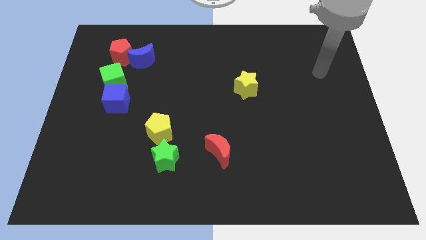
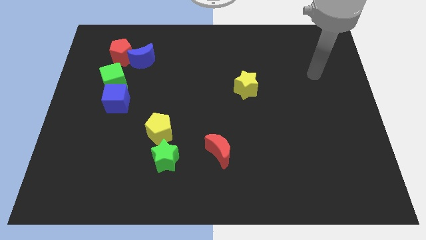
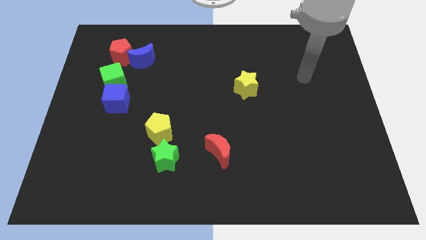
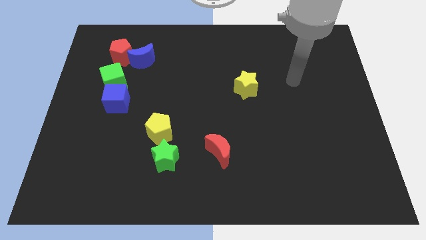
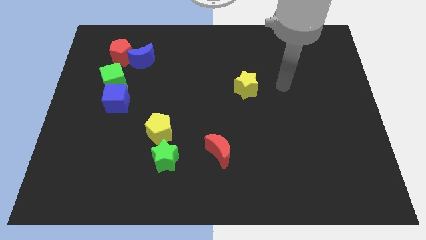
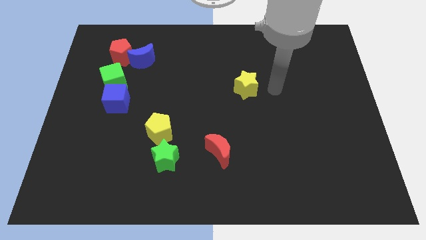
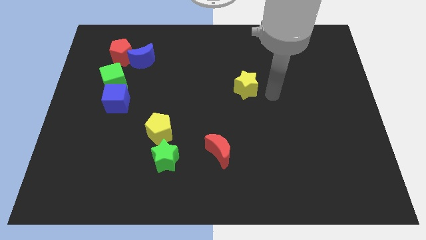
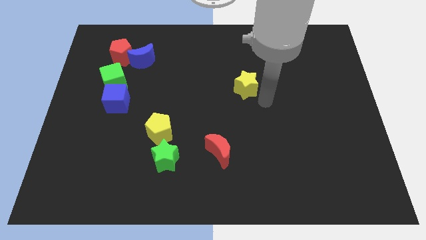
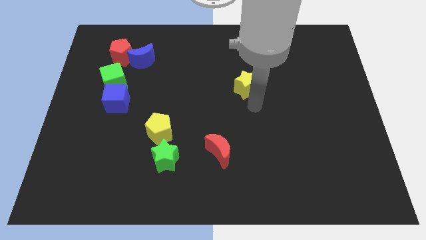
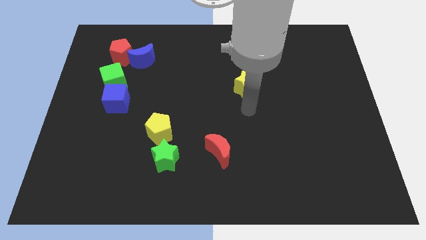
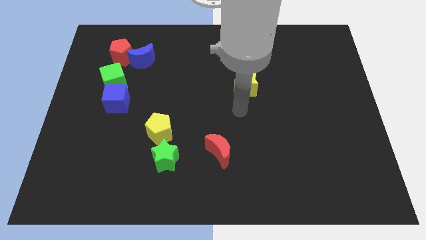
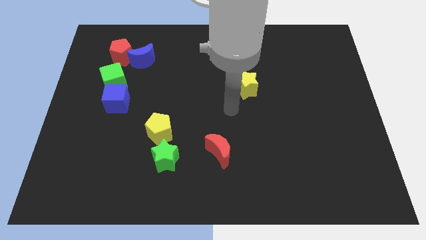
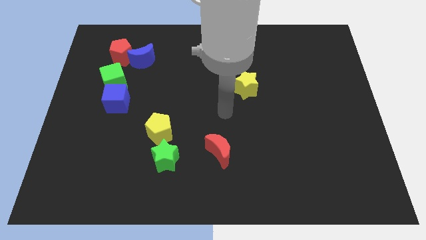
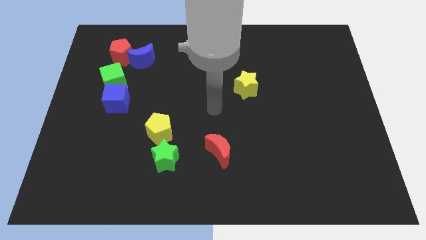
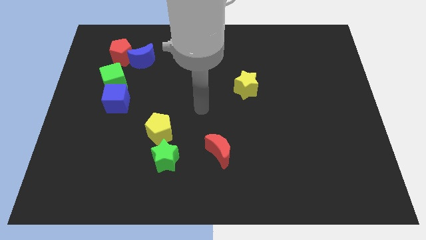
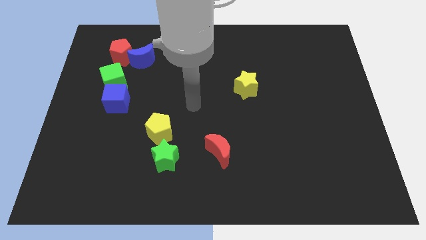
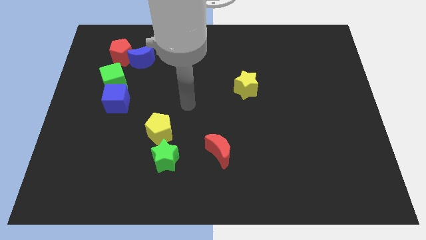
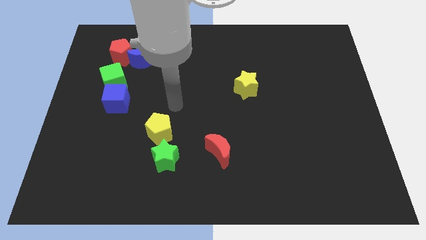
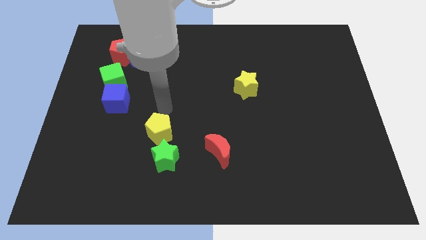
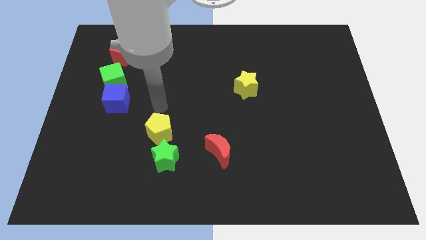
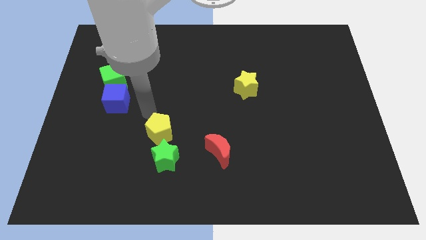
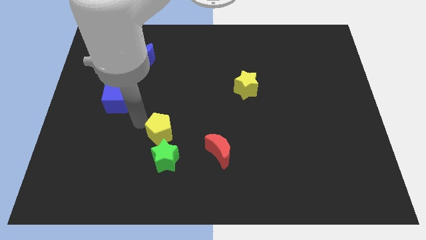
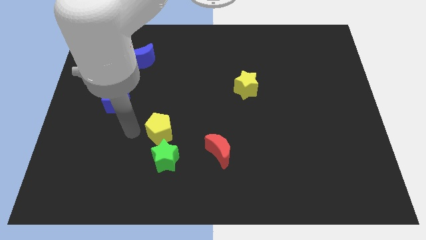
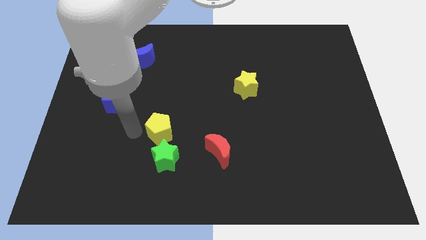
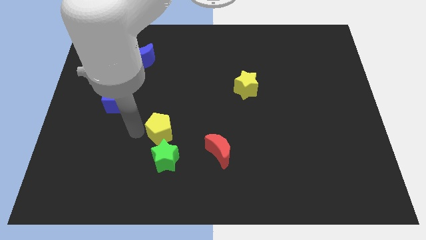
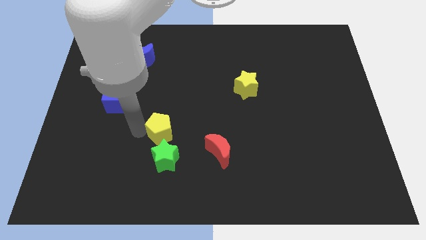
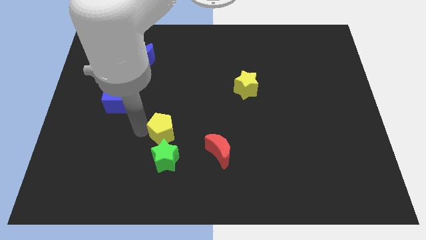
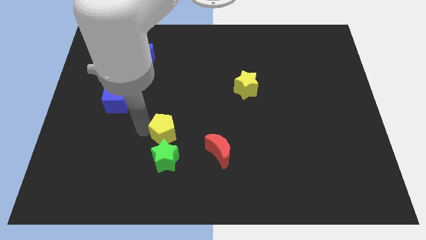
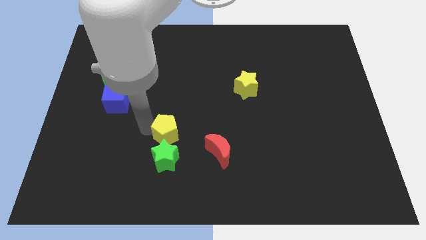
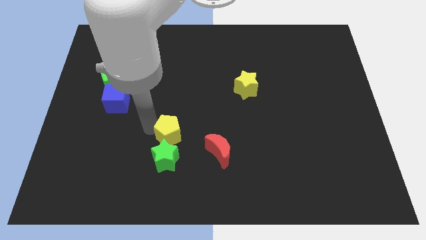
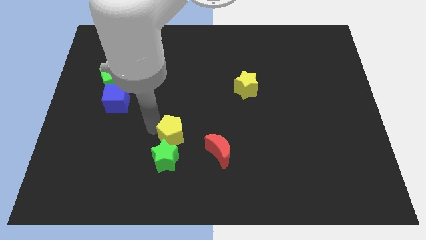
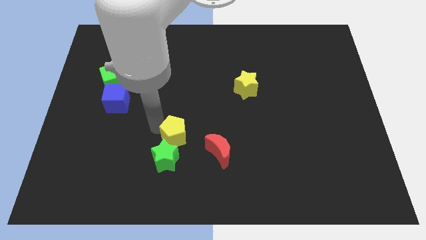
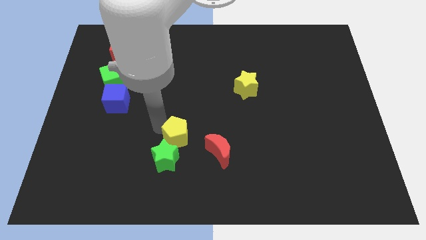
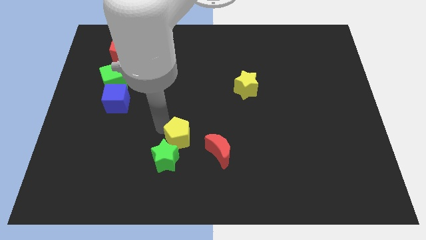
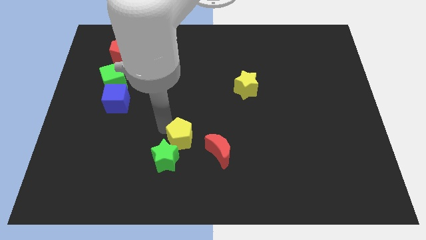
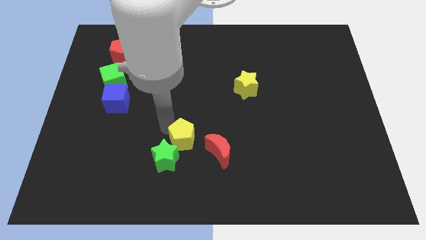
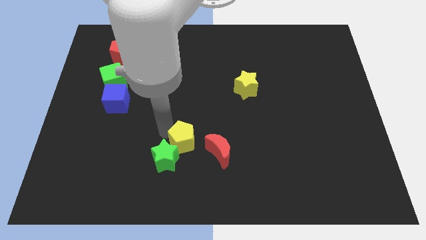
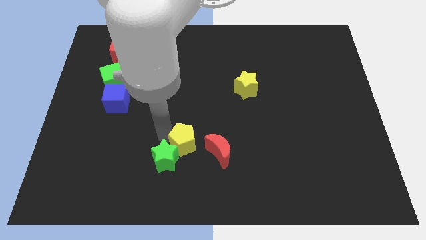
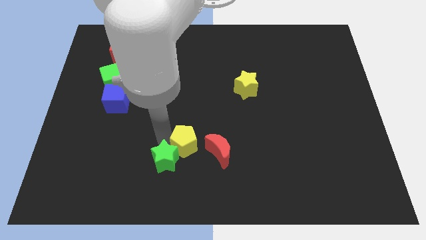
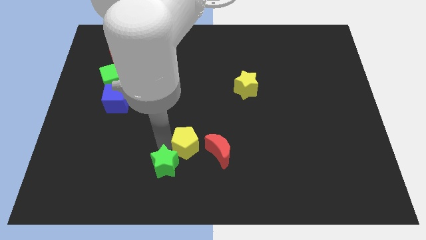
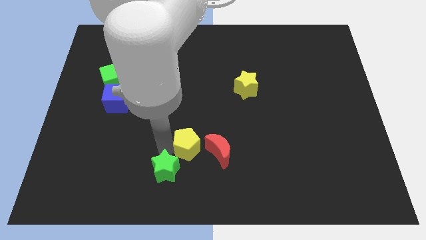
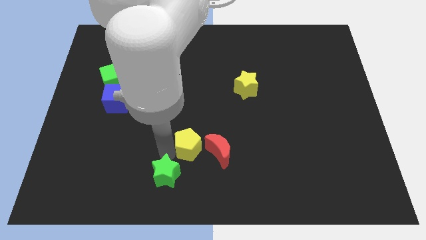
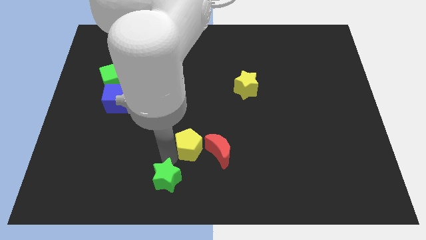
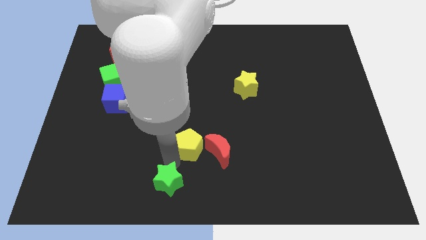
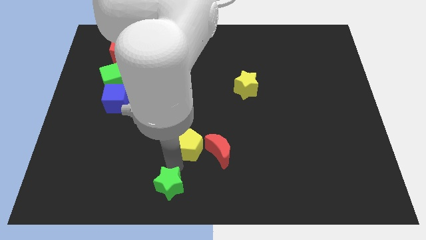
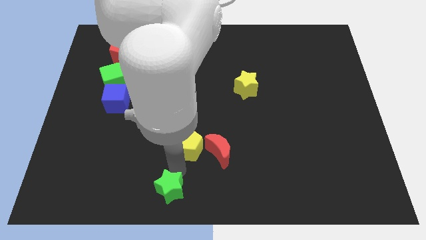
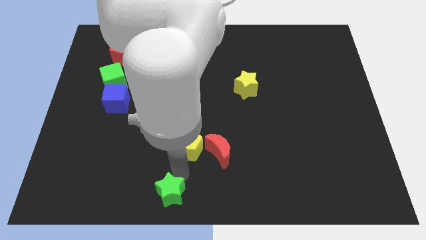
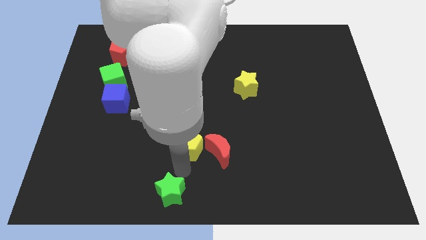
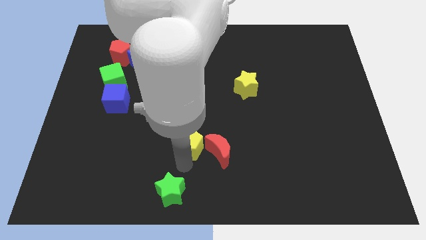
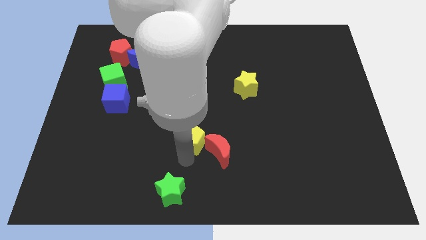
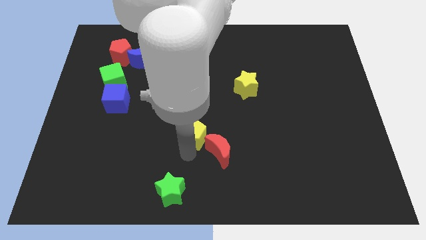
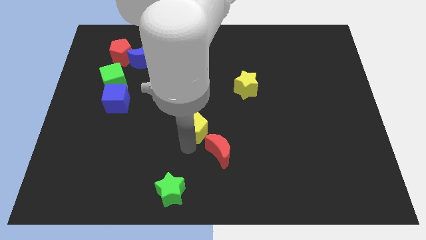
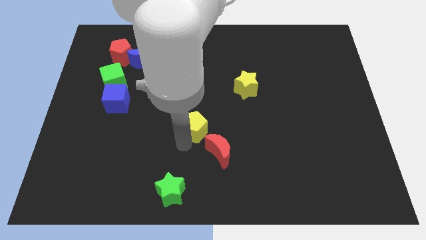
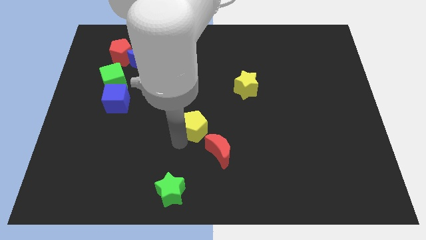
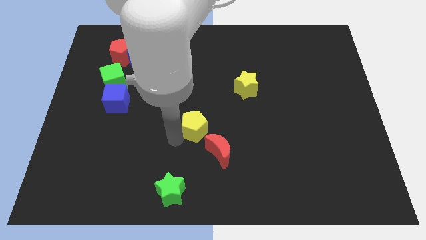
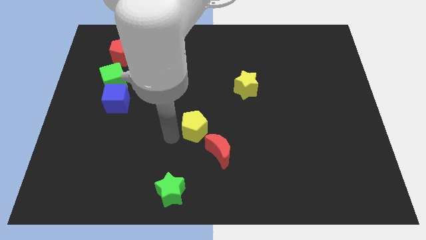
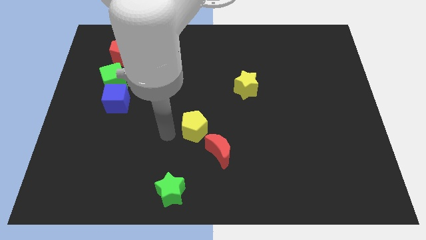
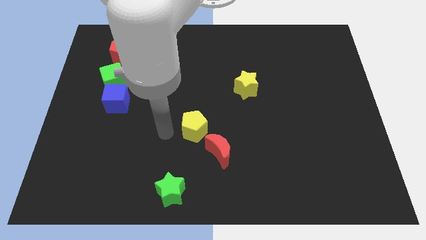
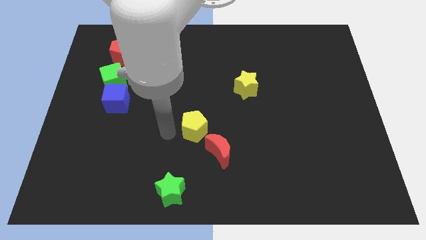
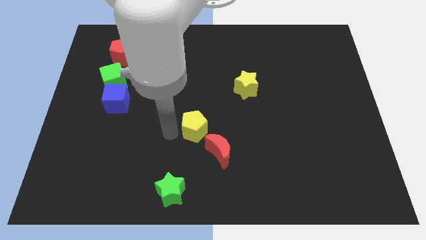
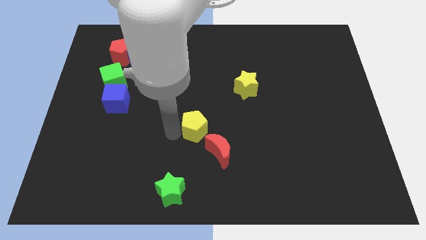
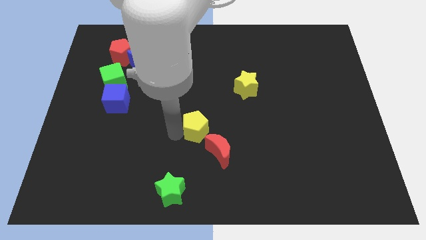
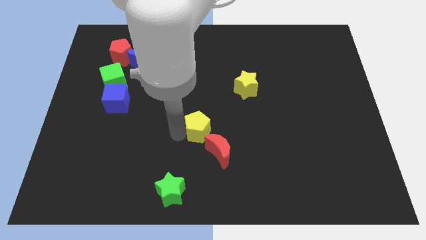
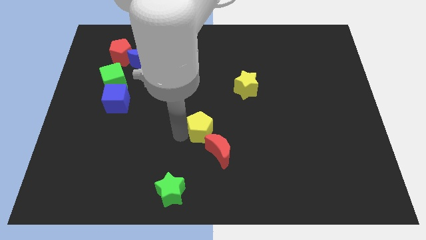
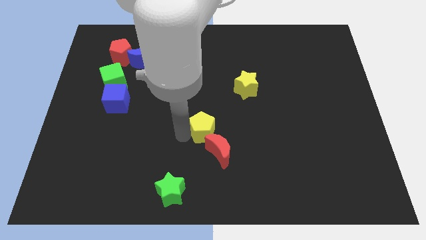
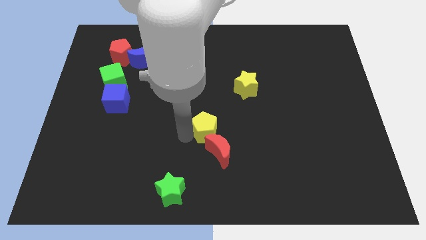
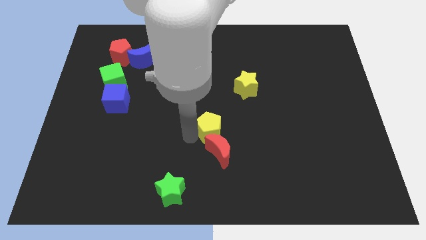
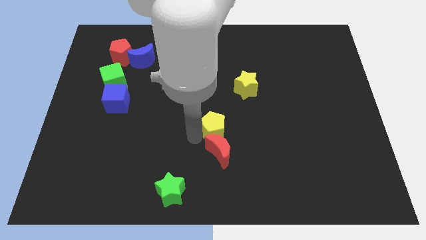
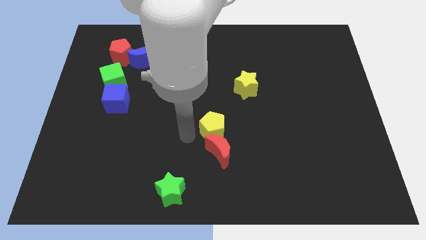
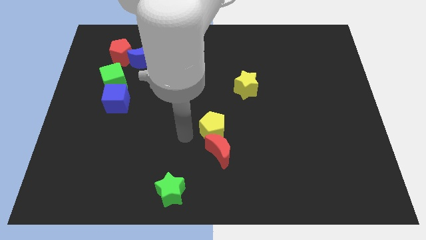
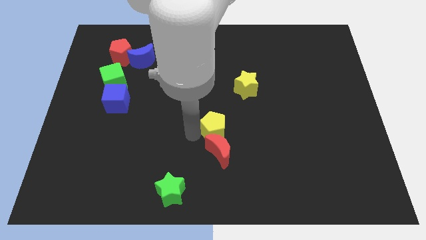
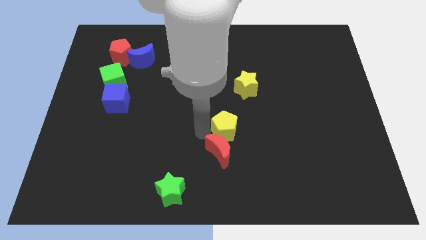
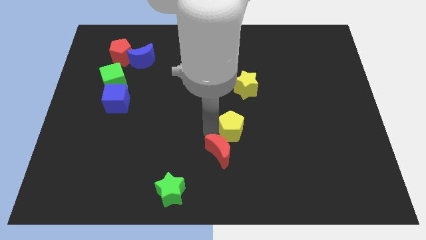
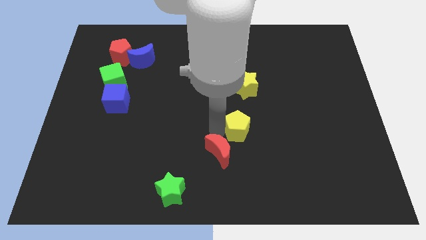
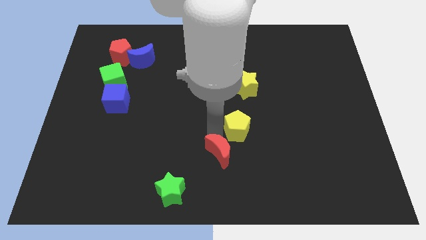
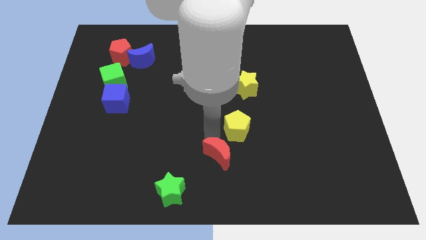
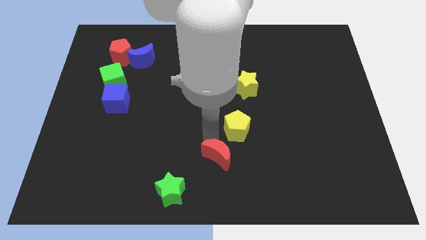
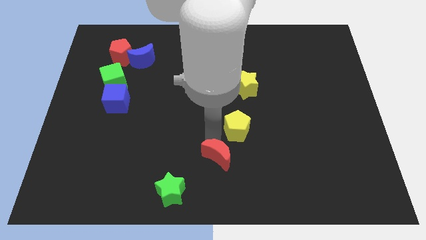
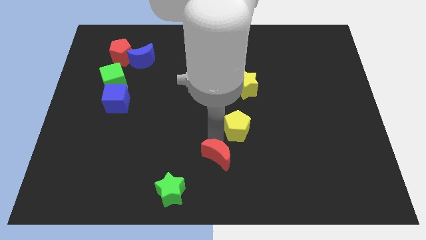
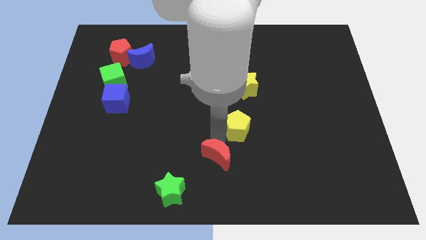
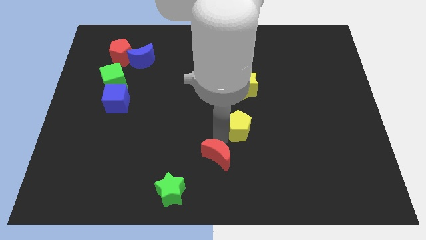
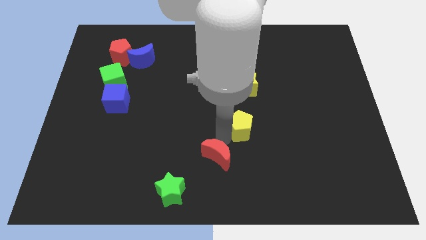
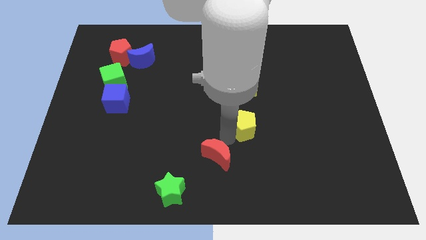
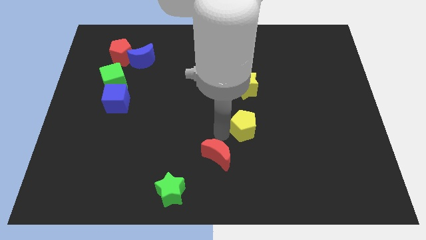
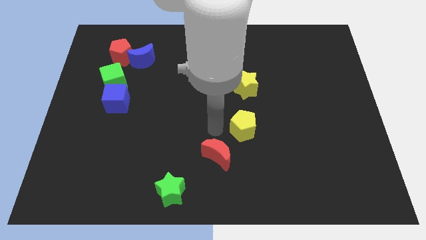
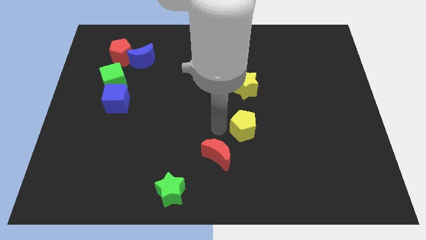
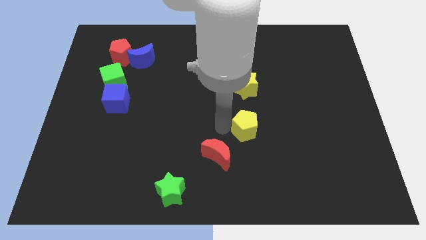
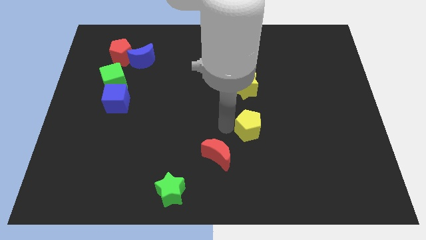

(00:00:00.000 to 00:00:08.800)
slide the yellow pentagon to the right
